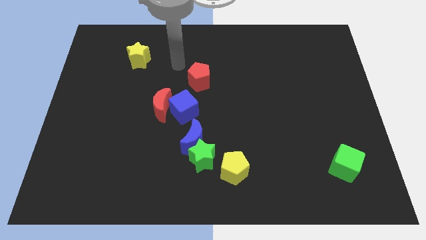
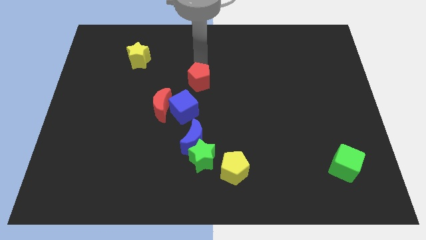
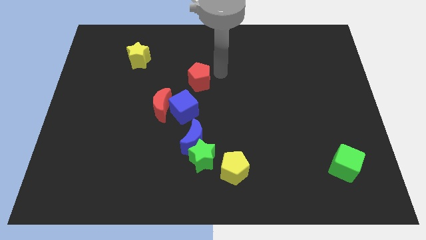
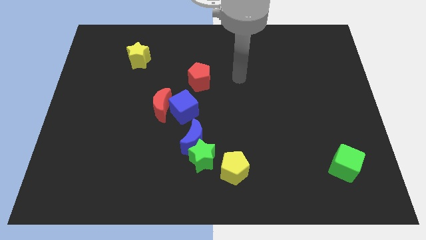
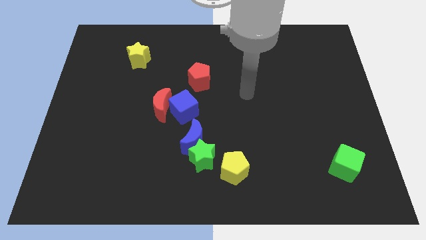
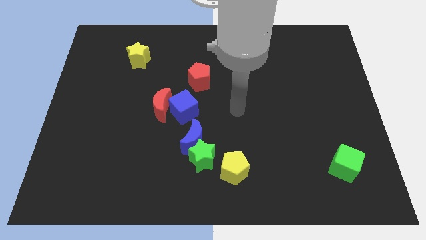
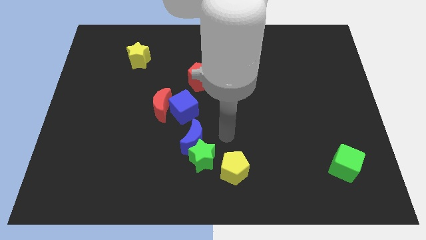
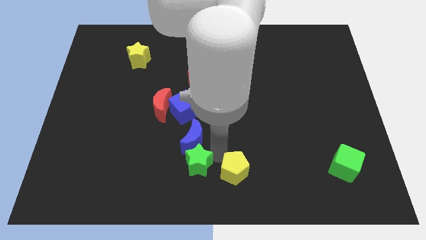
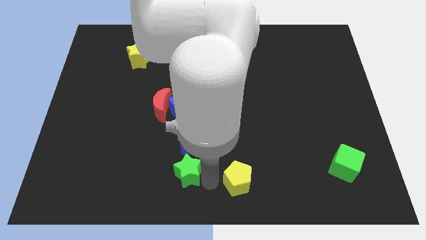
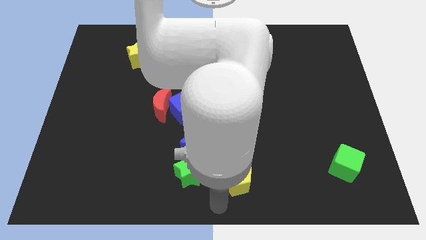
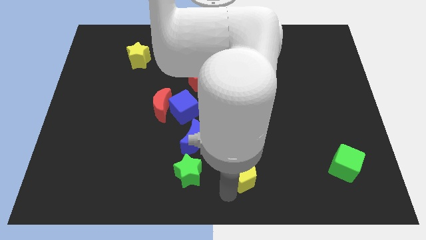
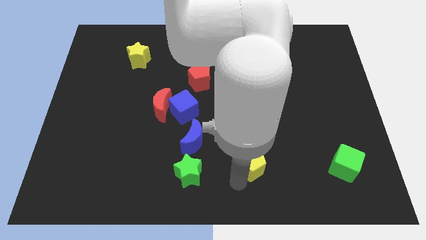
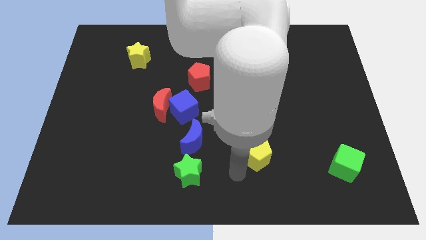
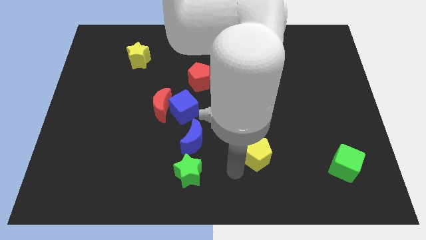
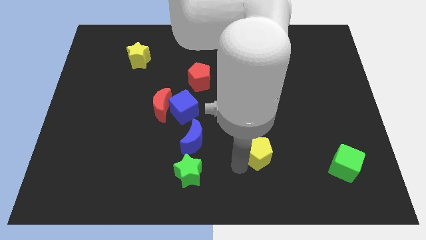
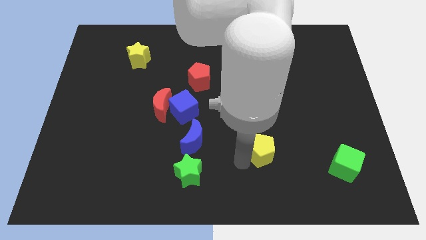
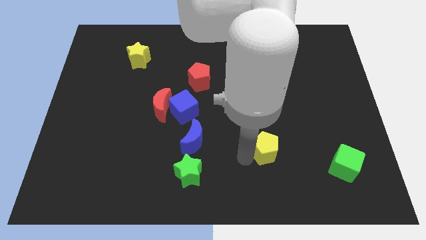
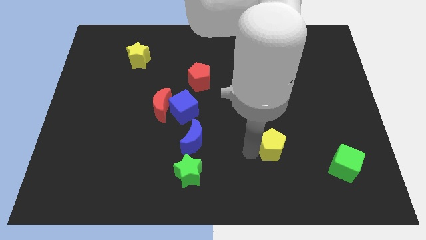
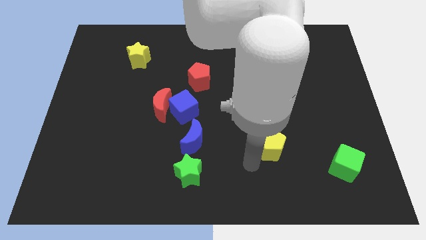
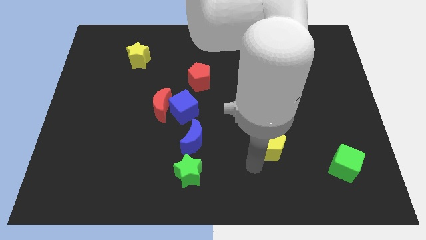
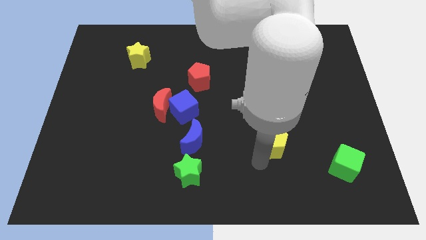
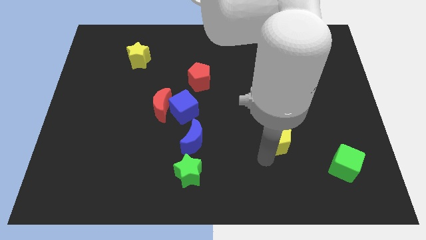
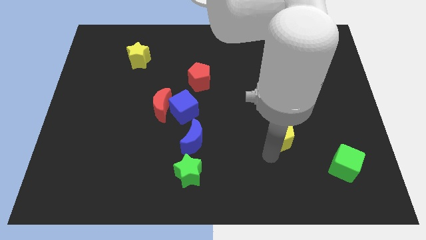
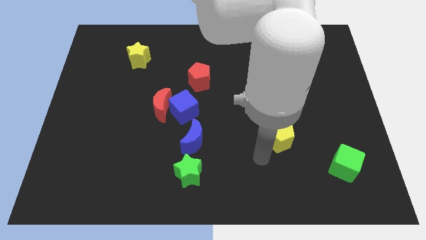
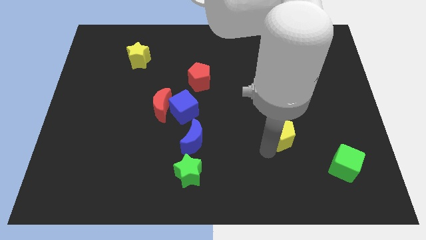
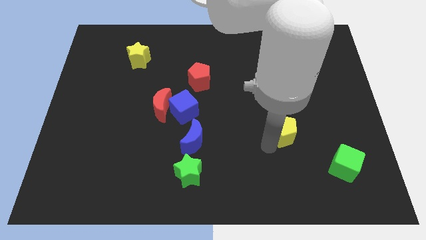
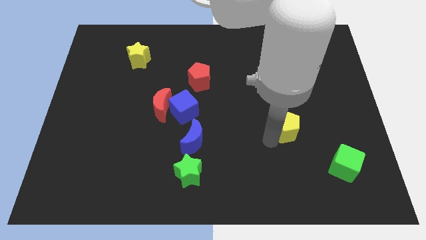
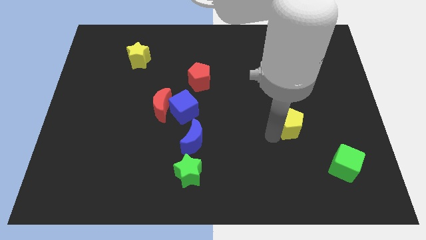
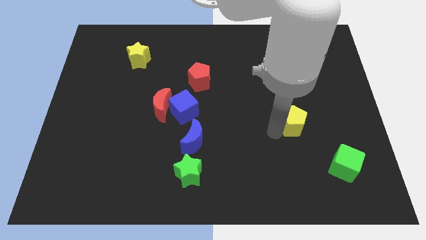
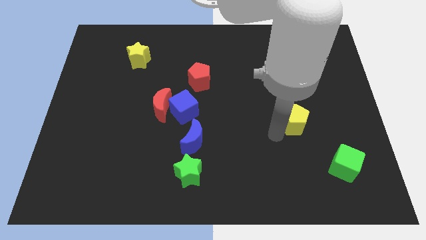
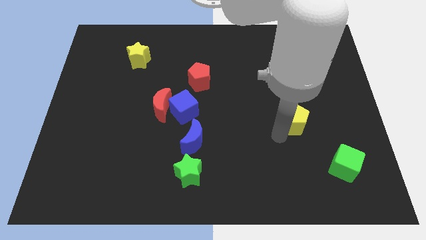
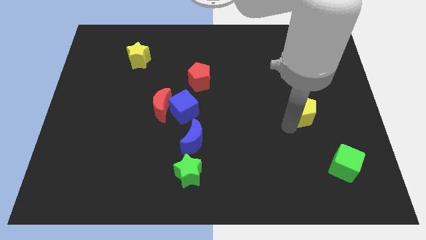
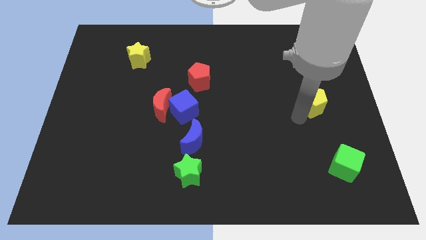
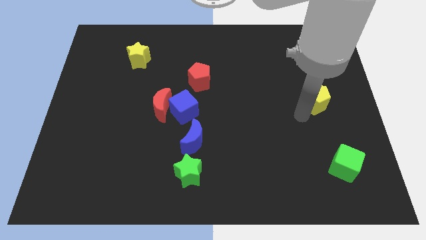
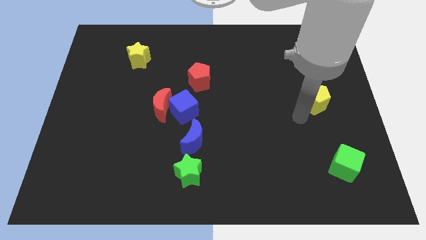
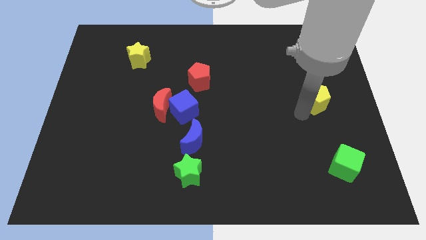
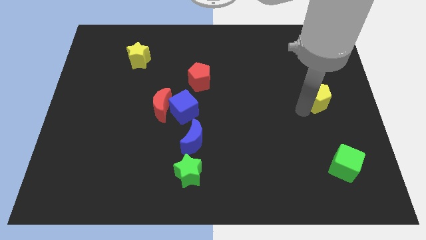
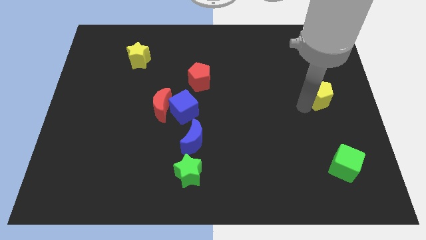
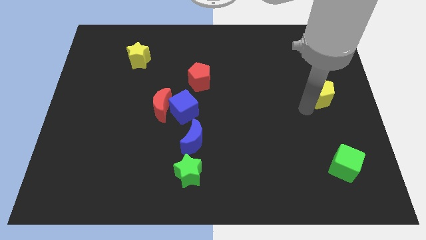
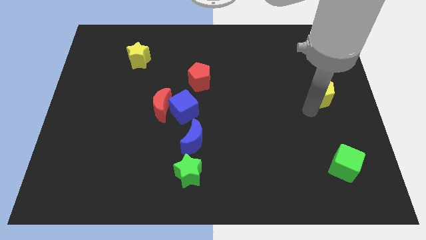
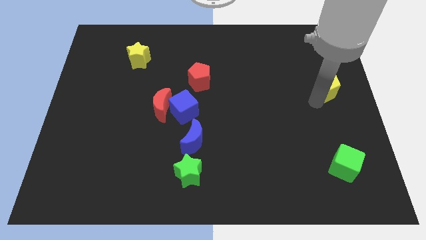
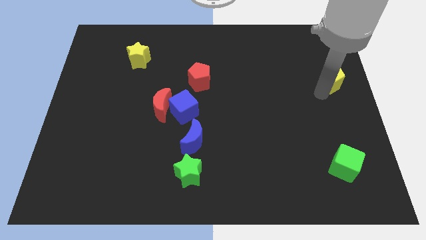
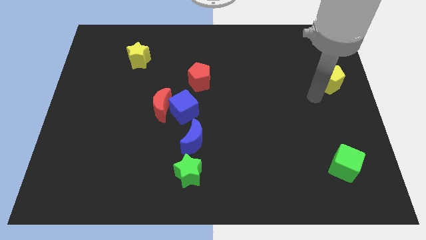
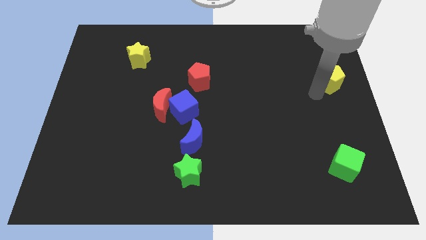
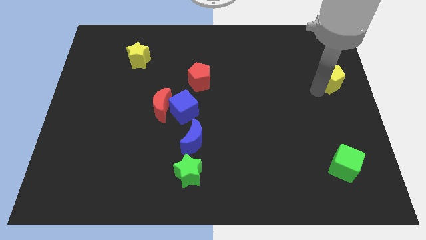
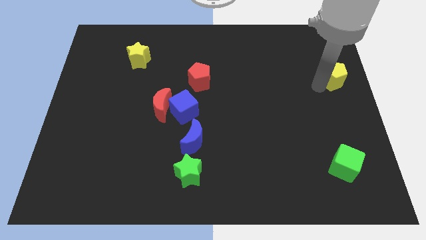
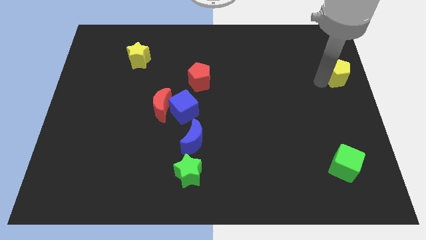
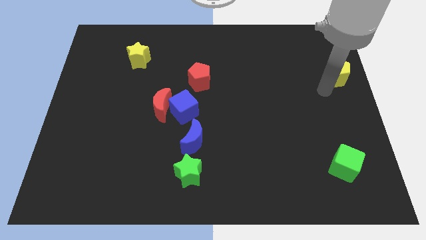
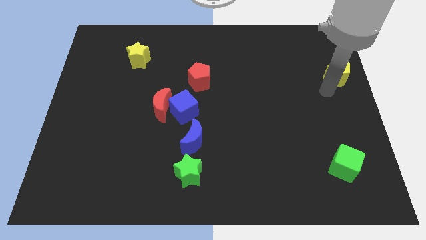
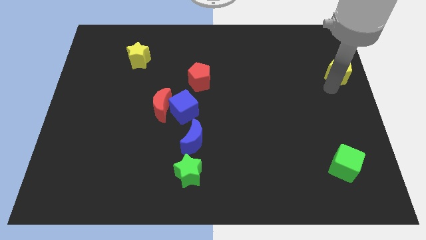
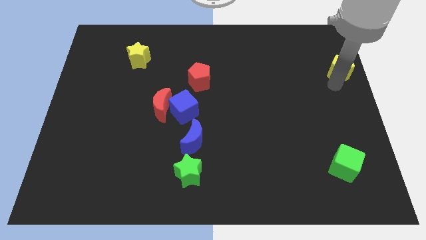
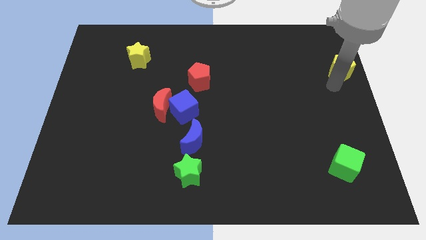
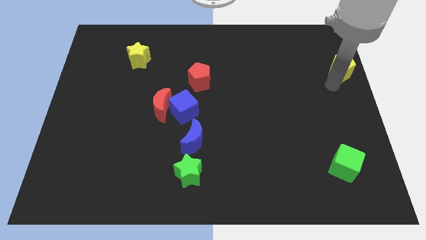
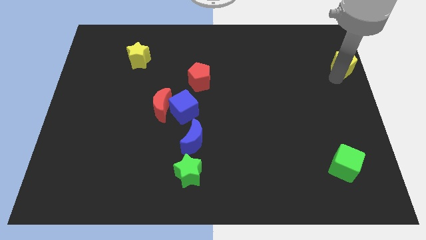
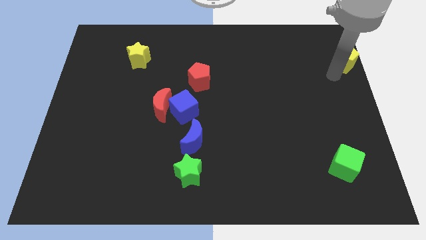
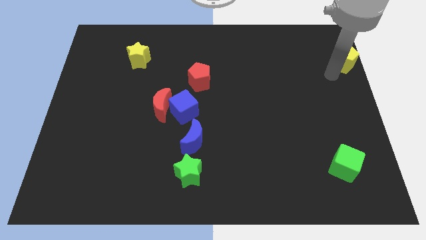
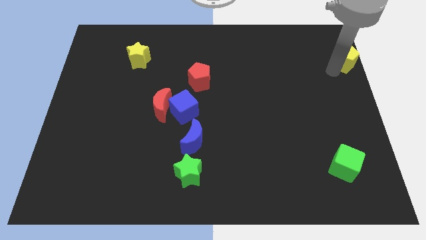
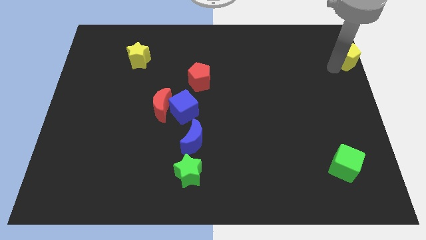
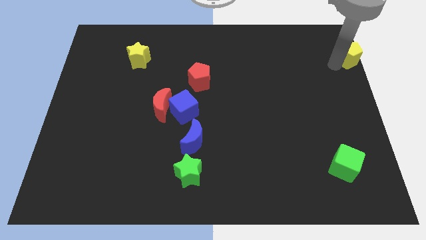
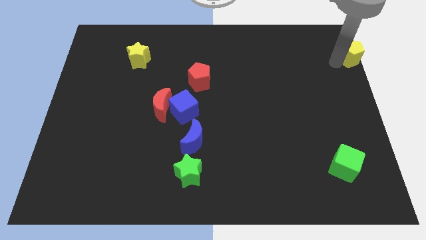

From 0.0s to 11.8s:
put the yellow pentagon to the top right corner

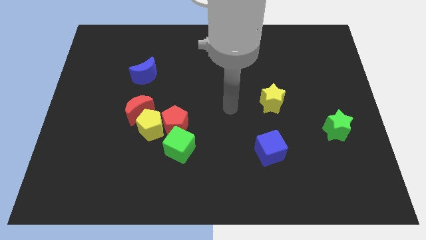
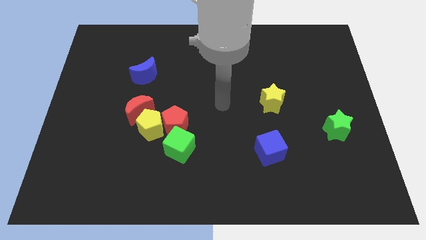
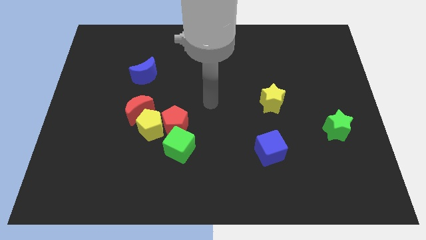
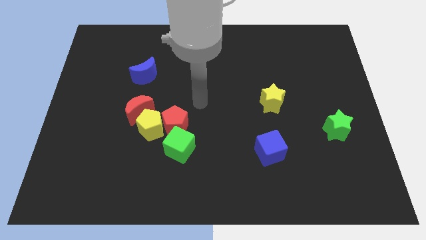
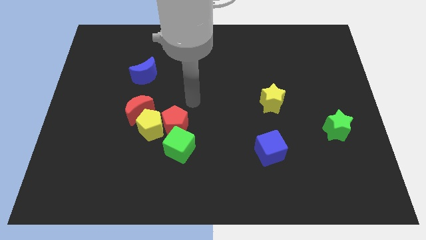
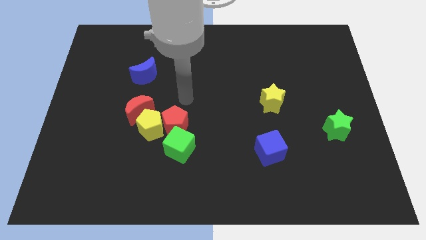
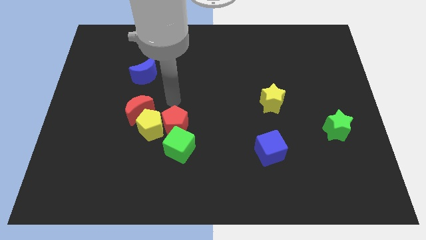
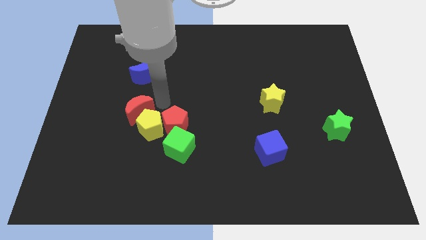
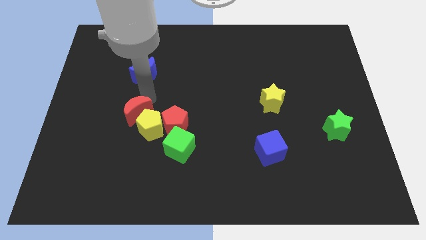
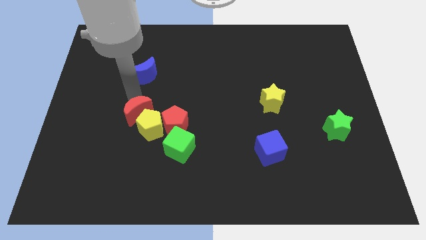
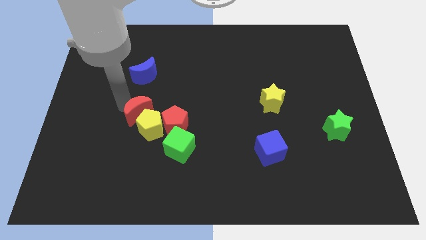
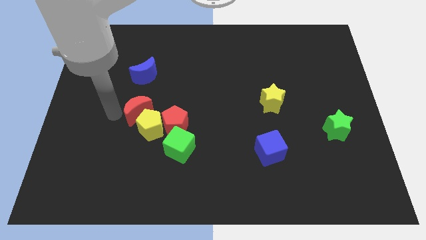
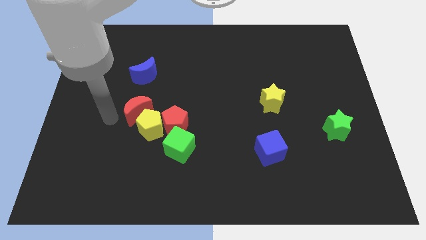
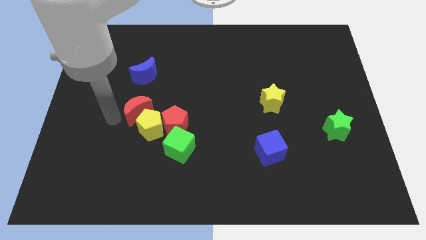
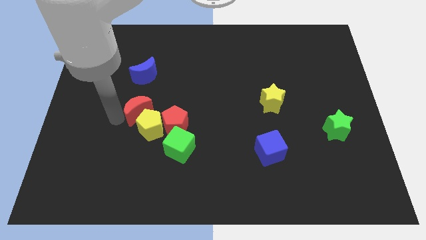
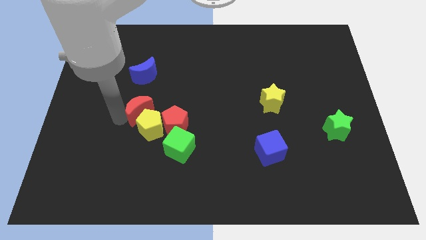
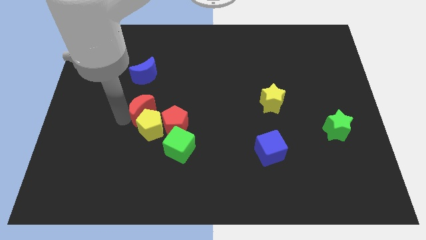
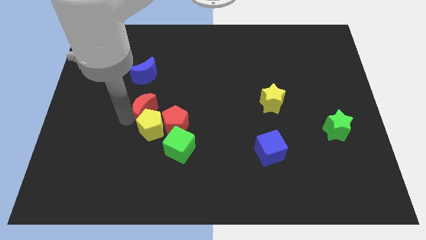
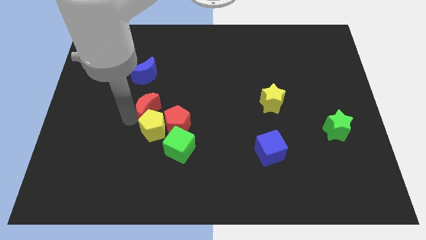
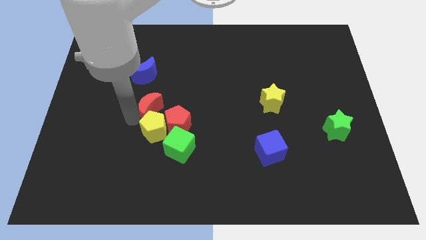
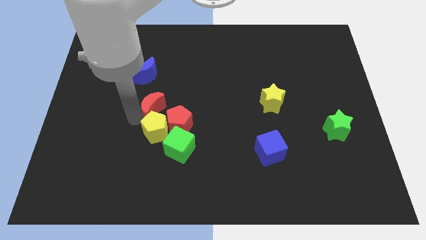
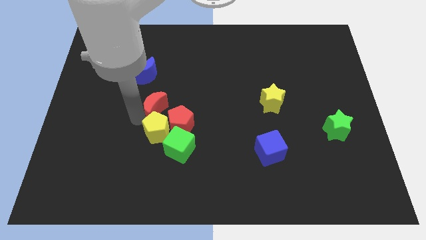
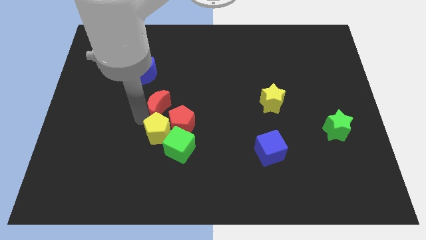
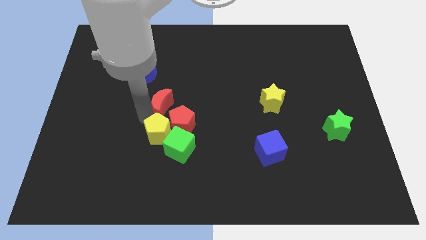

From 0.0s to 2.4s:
push the red moon to the center of the board
